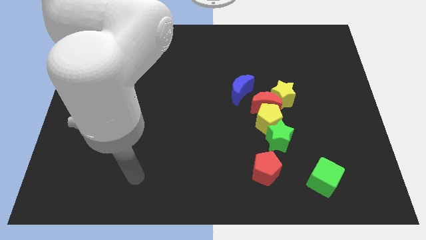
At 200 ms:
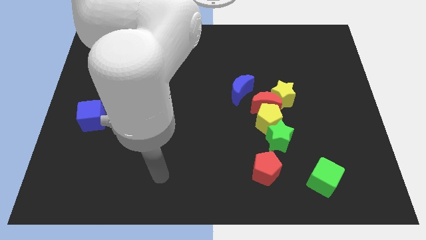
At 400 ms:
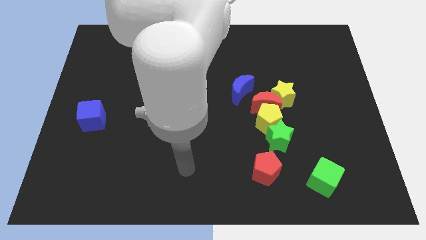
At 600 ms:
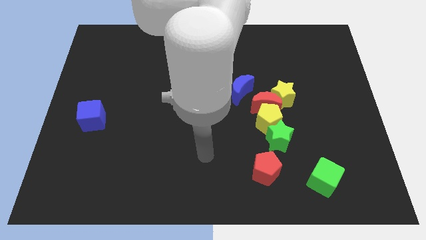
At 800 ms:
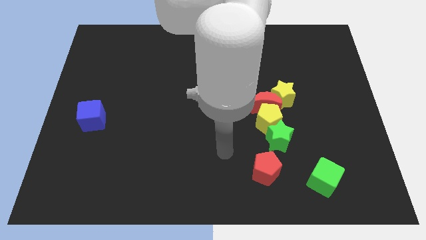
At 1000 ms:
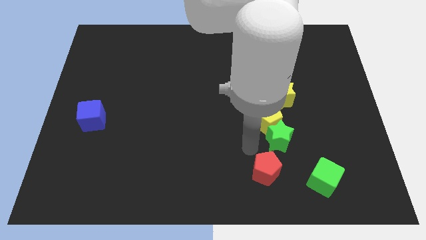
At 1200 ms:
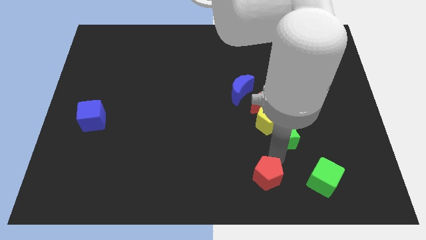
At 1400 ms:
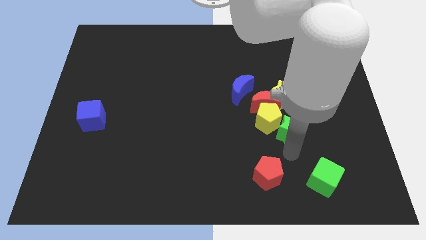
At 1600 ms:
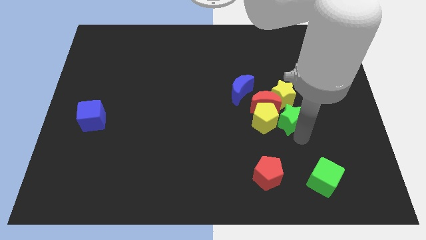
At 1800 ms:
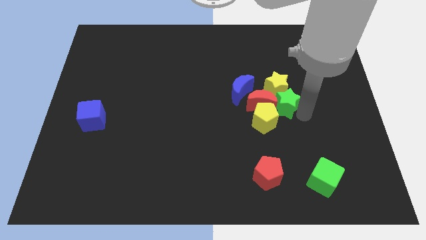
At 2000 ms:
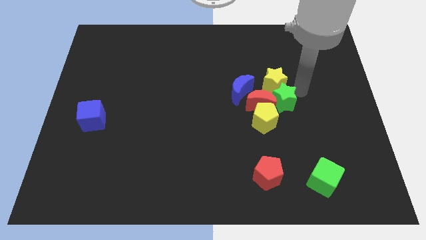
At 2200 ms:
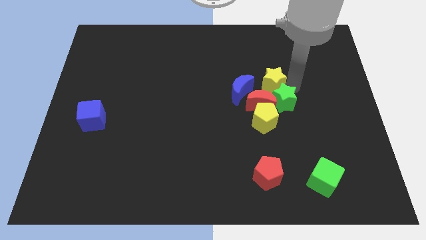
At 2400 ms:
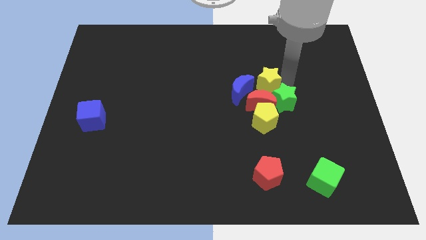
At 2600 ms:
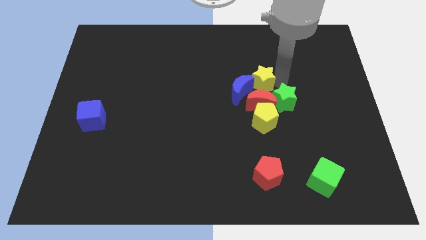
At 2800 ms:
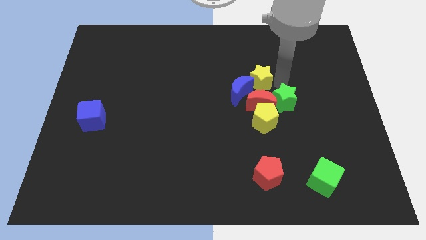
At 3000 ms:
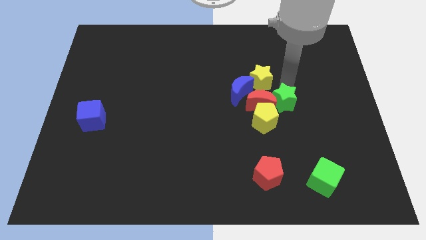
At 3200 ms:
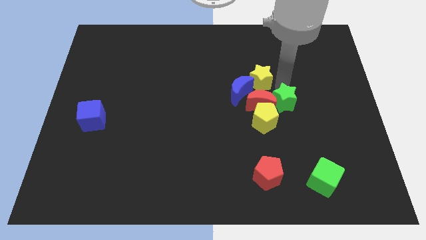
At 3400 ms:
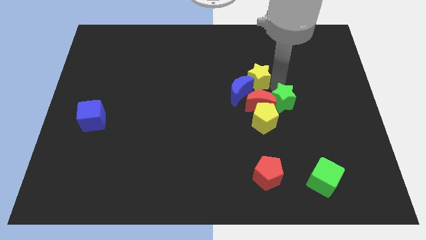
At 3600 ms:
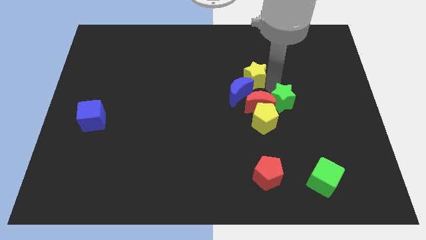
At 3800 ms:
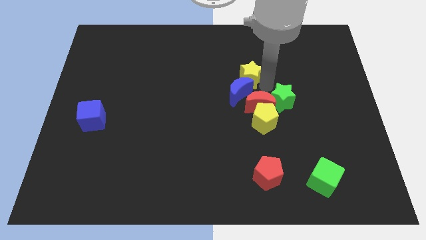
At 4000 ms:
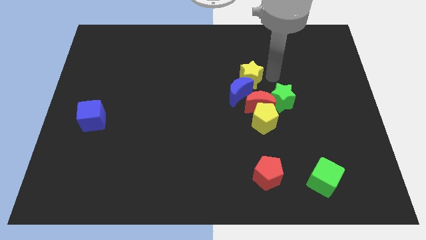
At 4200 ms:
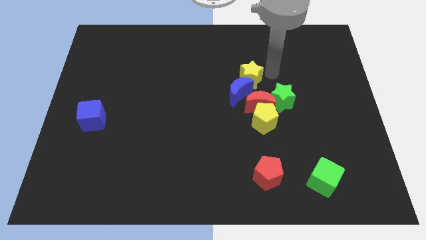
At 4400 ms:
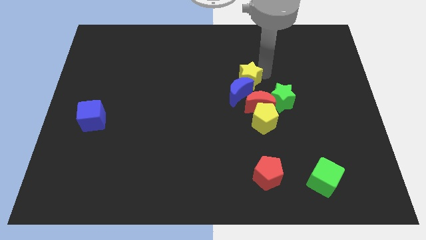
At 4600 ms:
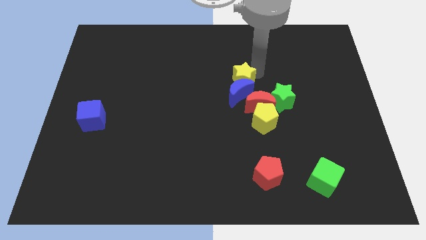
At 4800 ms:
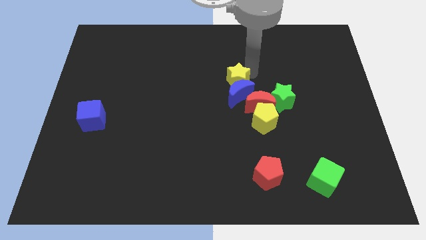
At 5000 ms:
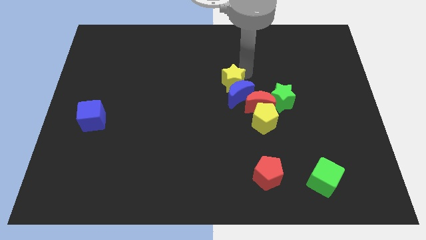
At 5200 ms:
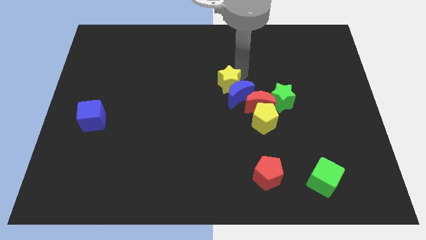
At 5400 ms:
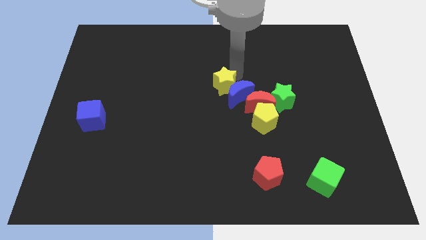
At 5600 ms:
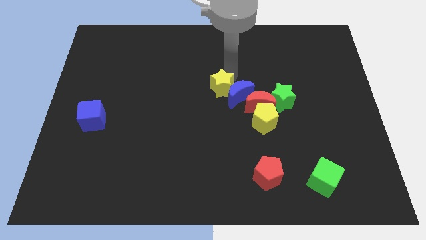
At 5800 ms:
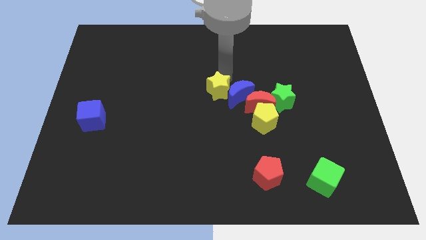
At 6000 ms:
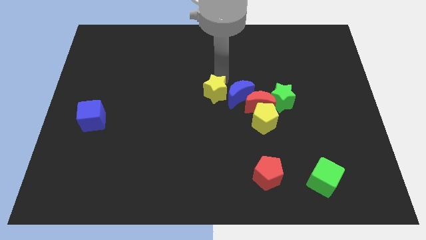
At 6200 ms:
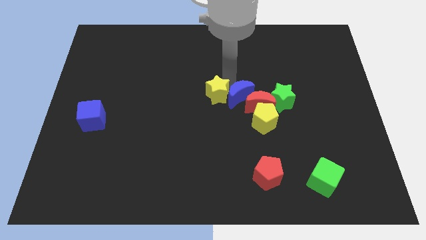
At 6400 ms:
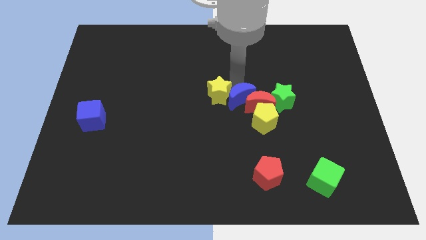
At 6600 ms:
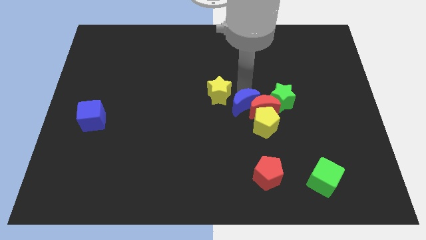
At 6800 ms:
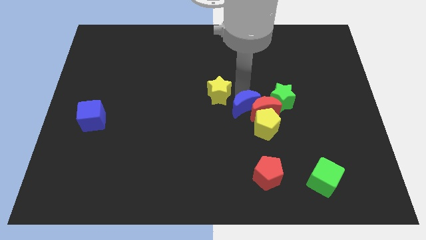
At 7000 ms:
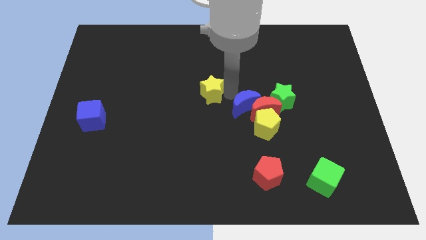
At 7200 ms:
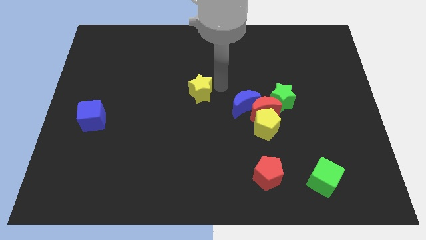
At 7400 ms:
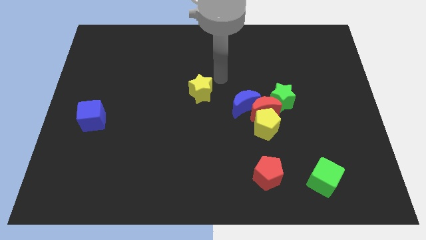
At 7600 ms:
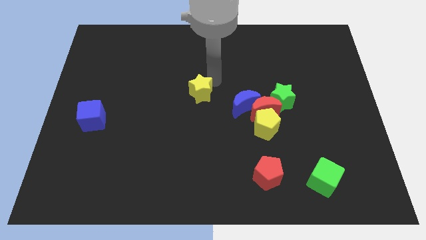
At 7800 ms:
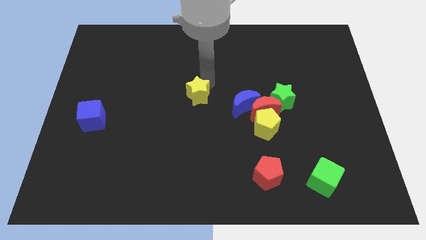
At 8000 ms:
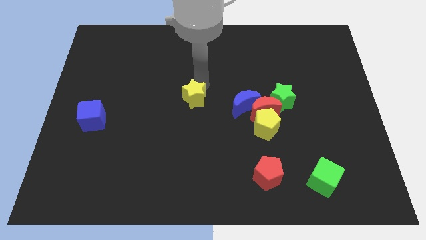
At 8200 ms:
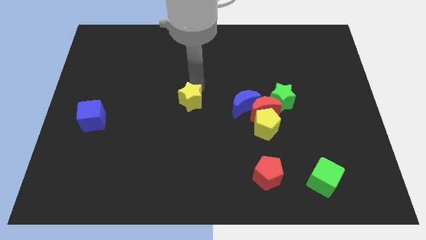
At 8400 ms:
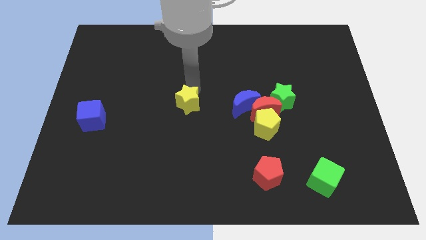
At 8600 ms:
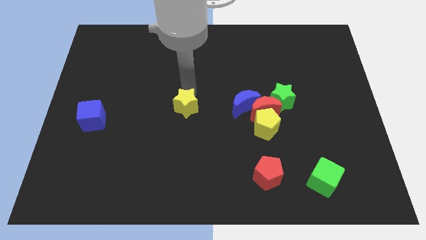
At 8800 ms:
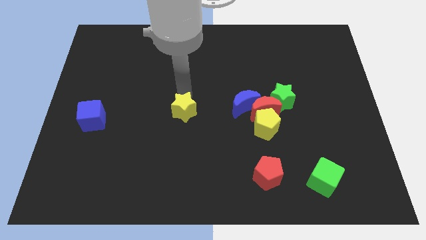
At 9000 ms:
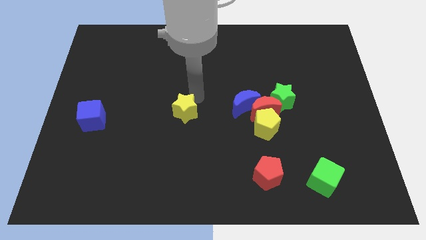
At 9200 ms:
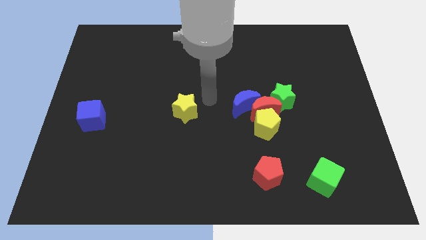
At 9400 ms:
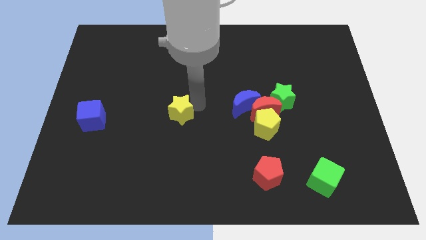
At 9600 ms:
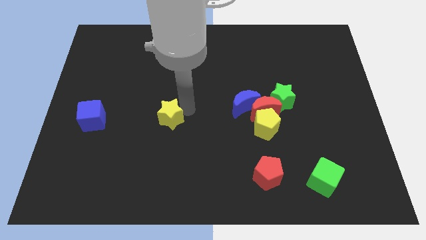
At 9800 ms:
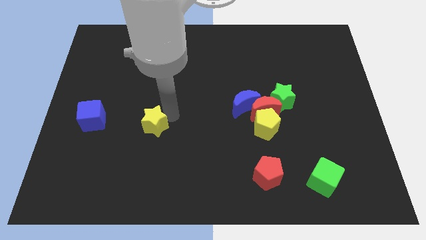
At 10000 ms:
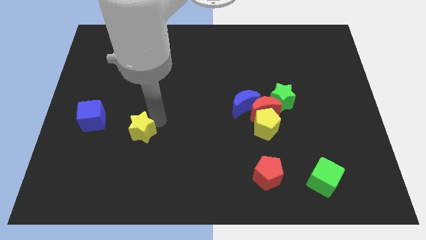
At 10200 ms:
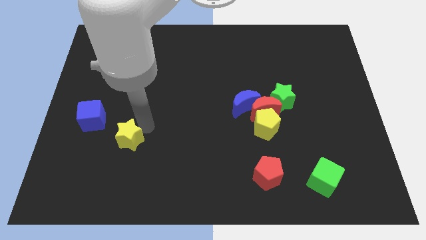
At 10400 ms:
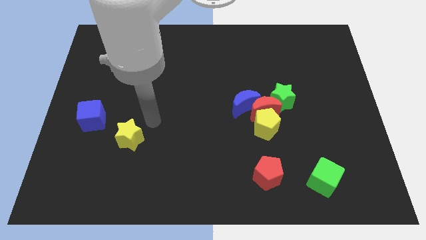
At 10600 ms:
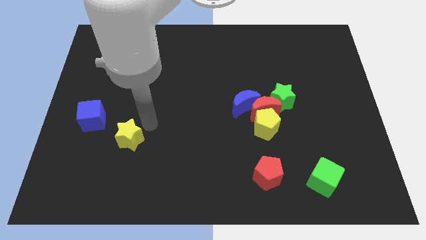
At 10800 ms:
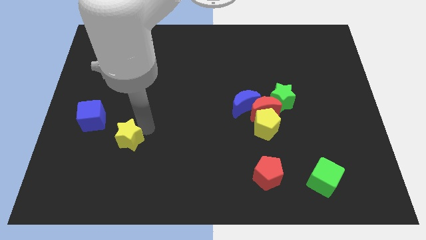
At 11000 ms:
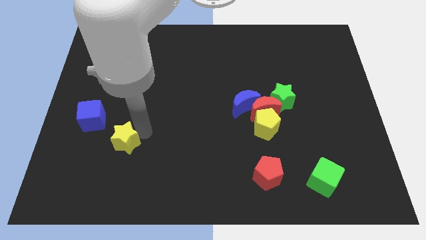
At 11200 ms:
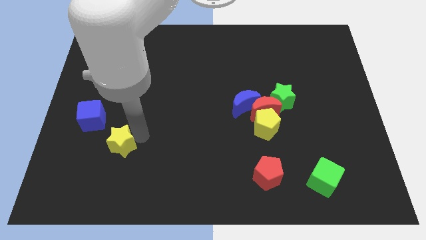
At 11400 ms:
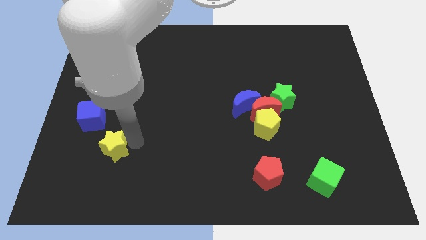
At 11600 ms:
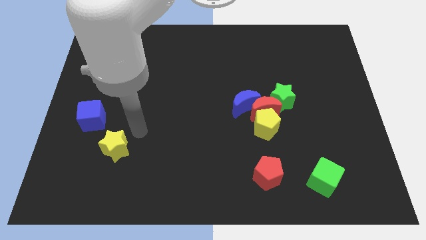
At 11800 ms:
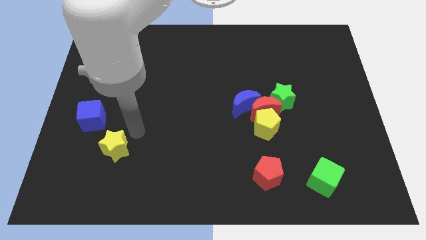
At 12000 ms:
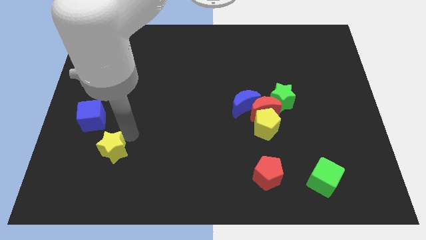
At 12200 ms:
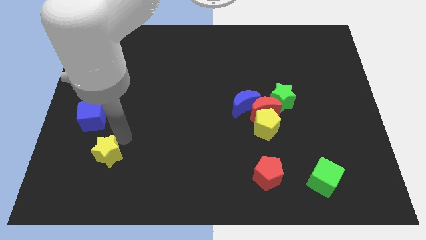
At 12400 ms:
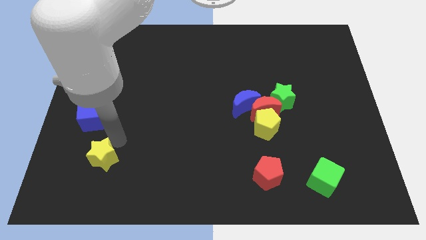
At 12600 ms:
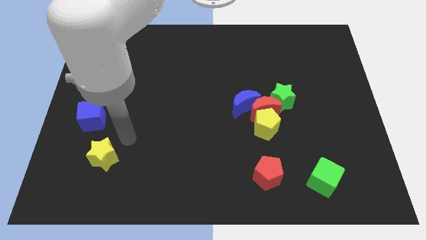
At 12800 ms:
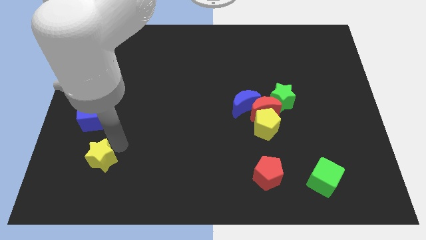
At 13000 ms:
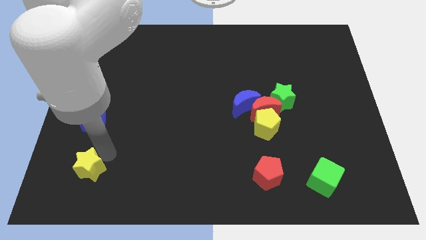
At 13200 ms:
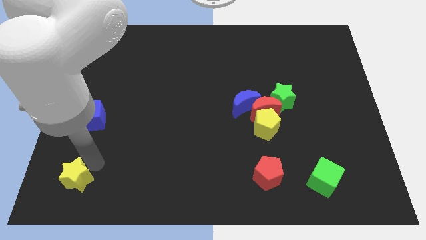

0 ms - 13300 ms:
push the yellow star to the bottom left of the board

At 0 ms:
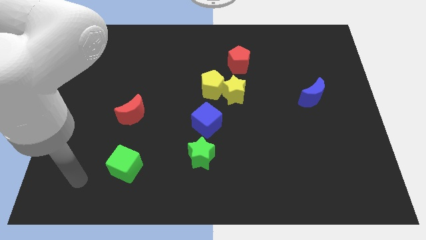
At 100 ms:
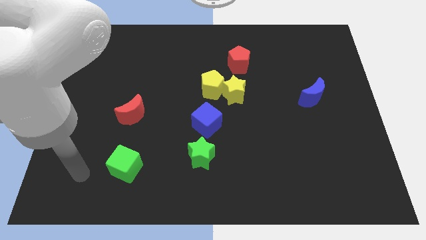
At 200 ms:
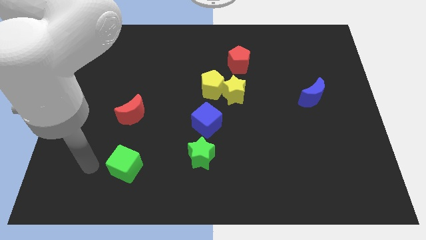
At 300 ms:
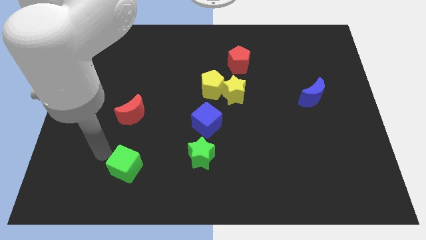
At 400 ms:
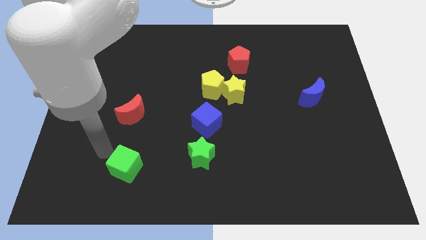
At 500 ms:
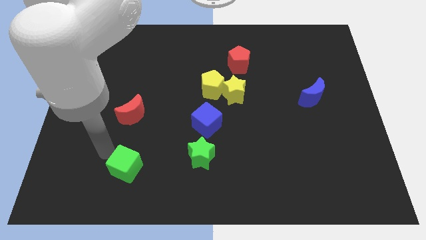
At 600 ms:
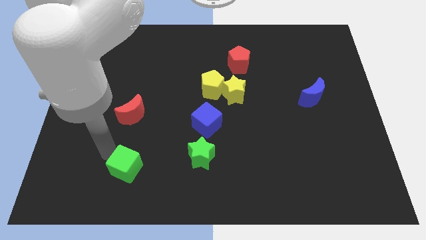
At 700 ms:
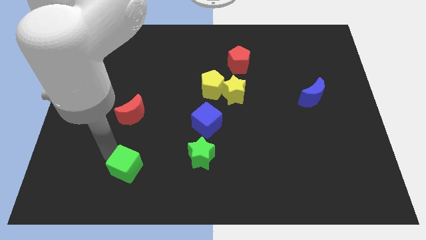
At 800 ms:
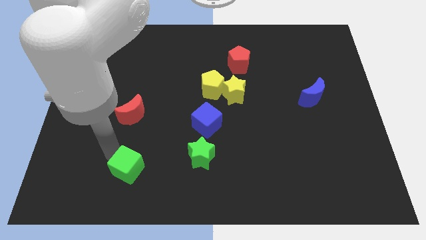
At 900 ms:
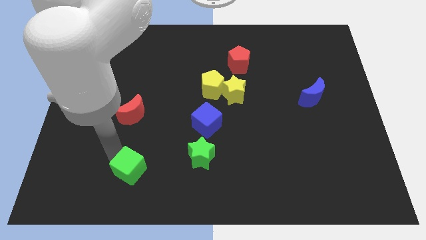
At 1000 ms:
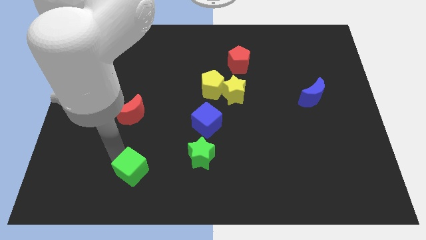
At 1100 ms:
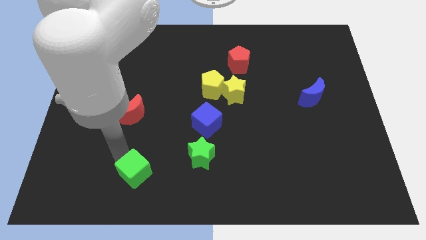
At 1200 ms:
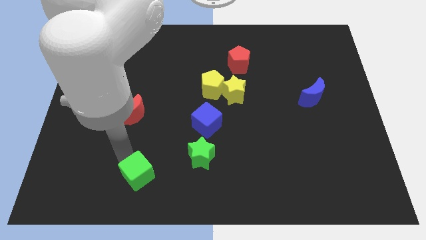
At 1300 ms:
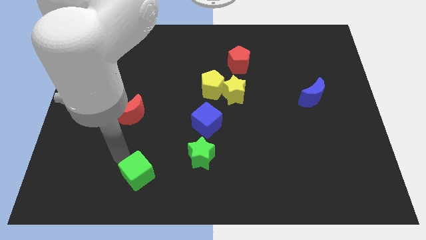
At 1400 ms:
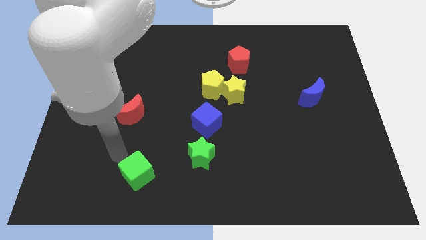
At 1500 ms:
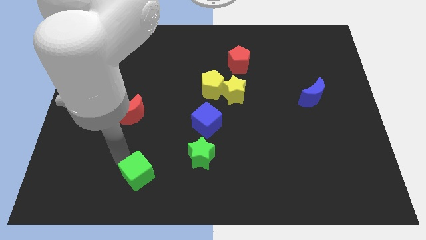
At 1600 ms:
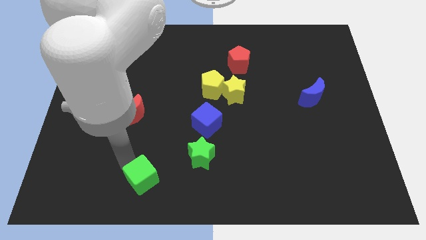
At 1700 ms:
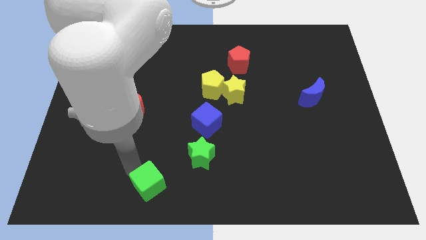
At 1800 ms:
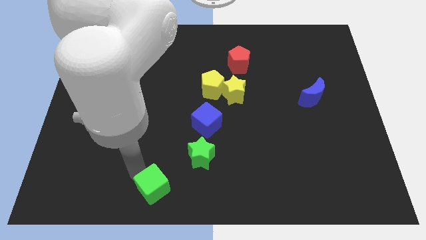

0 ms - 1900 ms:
put the green cube to the bottom side
